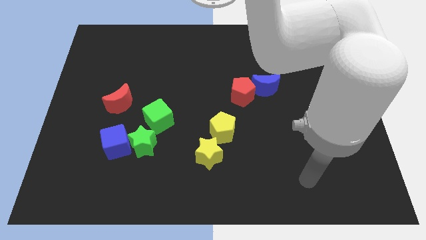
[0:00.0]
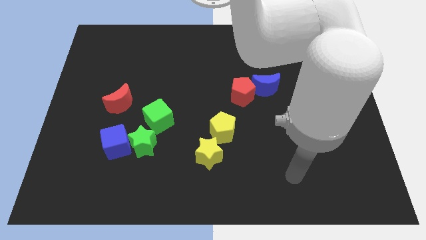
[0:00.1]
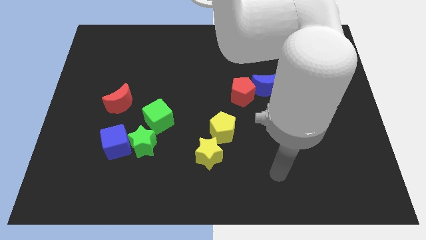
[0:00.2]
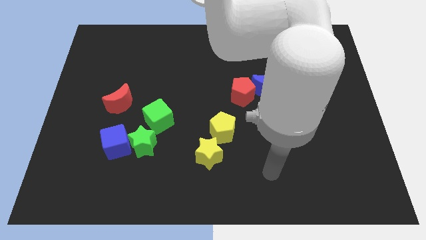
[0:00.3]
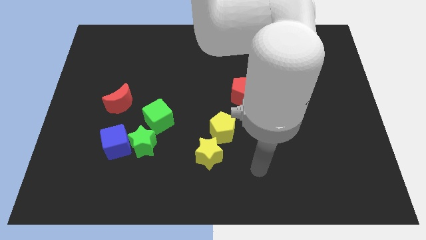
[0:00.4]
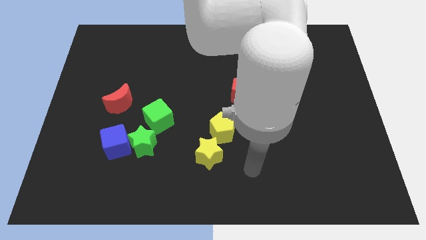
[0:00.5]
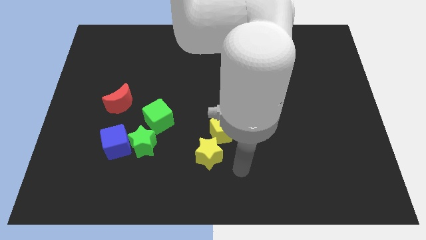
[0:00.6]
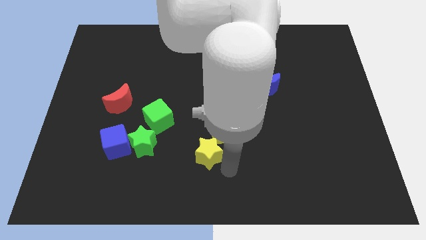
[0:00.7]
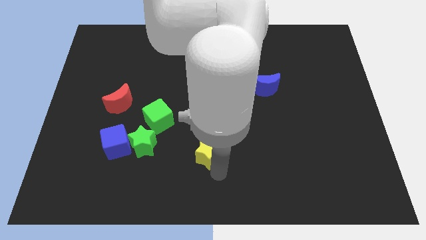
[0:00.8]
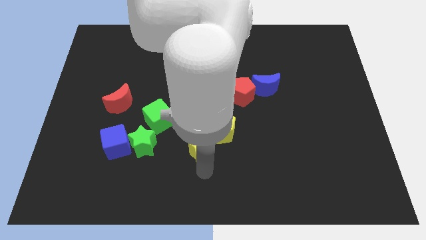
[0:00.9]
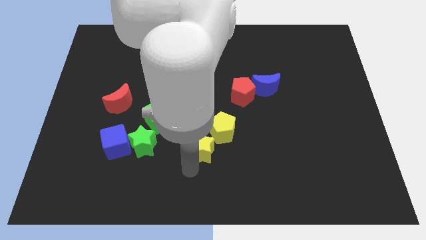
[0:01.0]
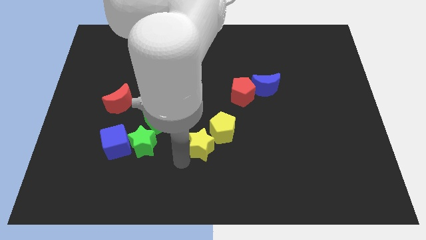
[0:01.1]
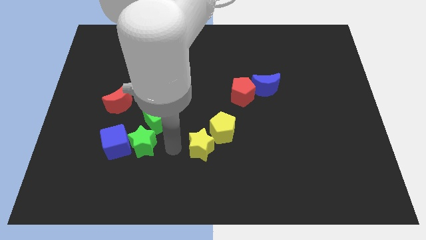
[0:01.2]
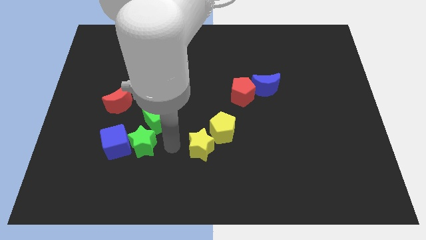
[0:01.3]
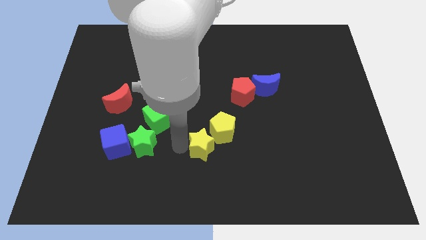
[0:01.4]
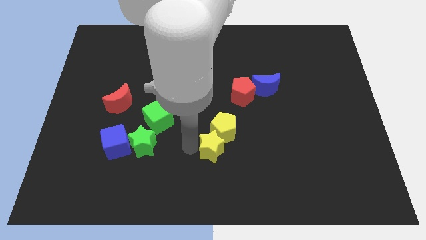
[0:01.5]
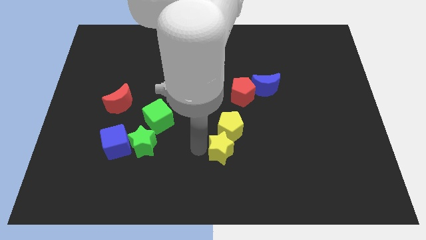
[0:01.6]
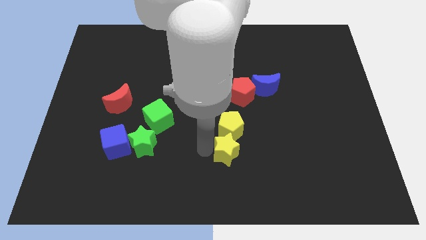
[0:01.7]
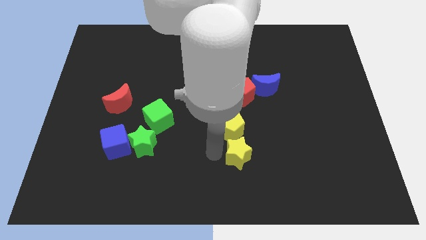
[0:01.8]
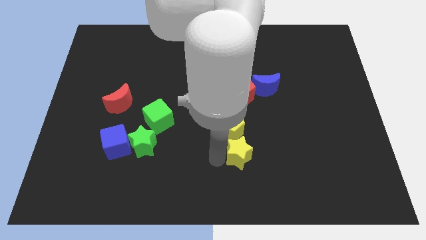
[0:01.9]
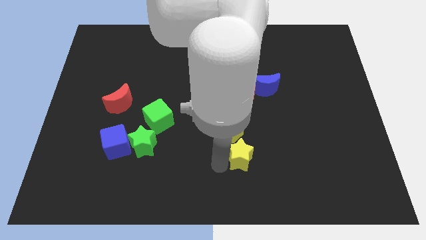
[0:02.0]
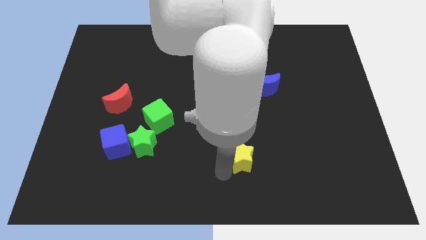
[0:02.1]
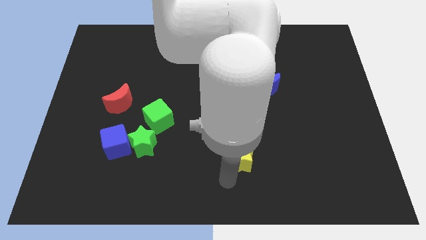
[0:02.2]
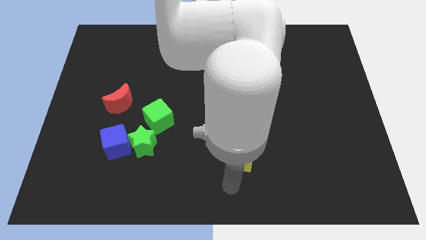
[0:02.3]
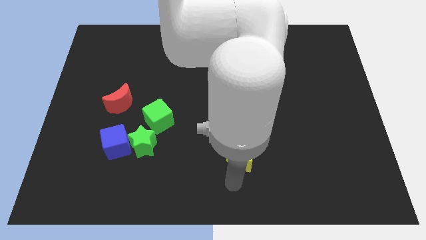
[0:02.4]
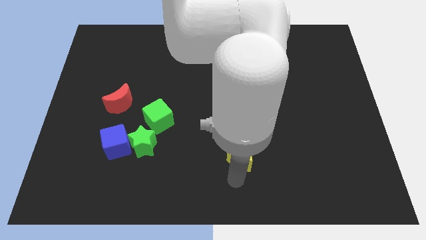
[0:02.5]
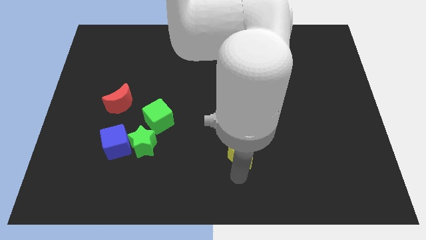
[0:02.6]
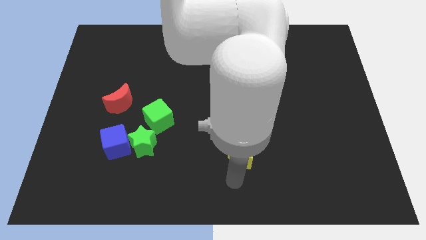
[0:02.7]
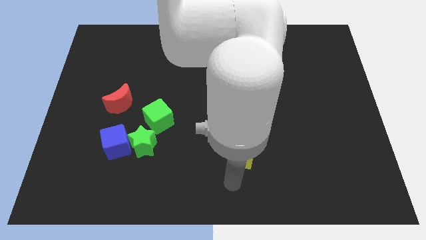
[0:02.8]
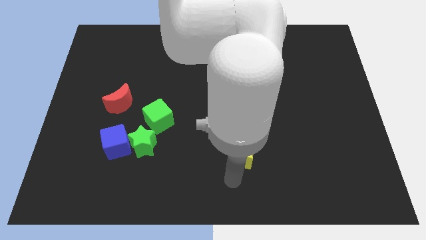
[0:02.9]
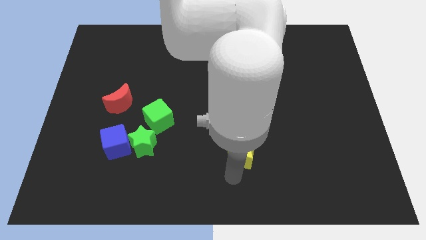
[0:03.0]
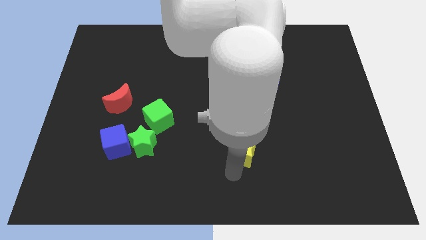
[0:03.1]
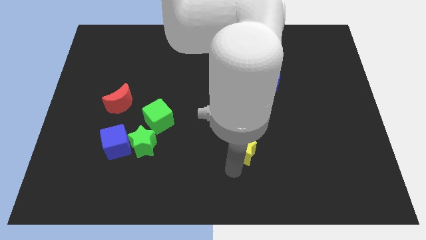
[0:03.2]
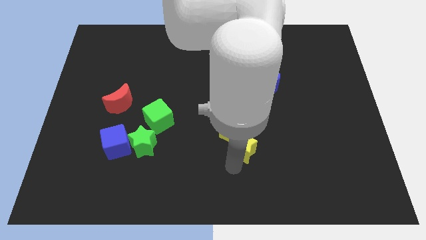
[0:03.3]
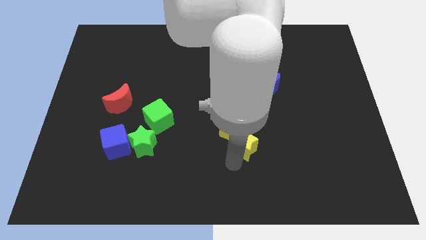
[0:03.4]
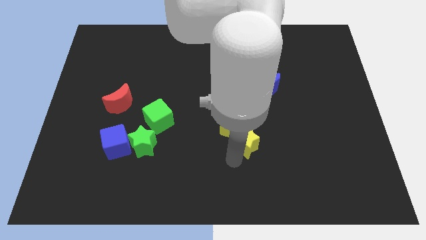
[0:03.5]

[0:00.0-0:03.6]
slide the yellow star somewhat up and then to the right

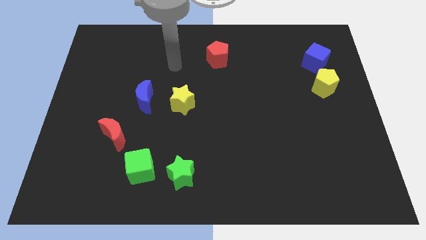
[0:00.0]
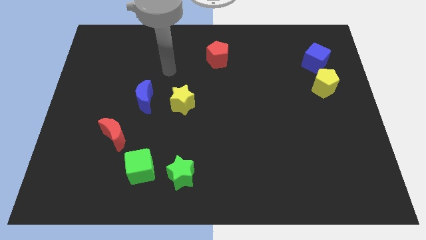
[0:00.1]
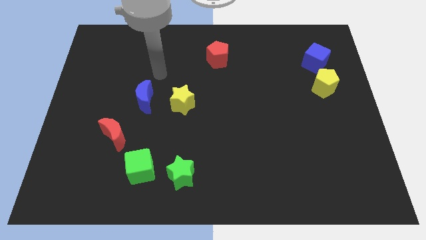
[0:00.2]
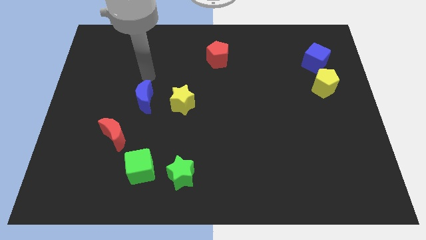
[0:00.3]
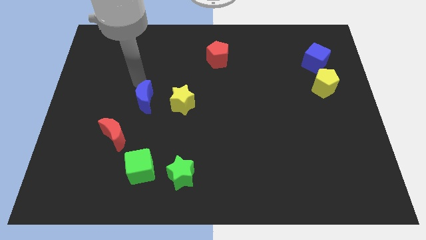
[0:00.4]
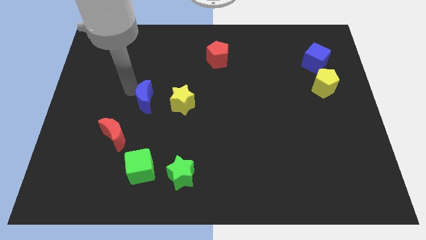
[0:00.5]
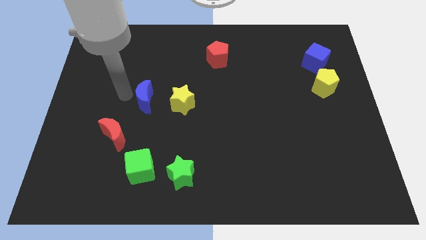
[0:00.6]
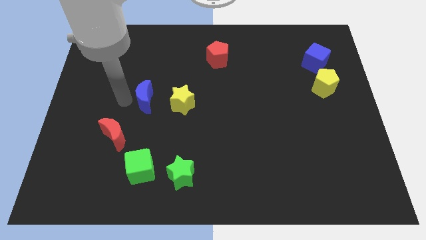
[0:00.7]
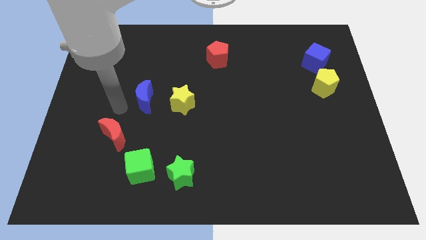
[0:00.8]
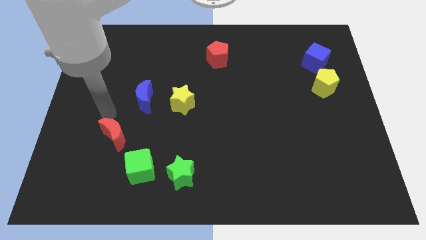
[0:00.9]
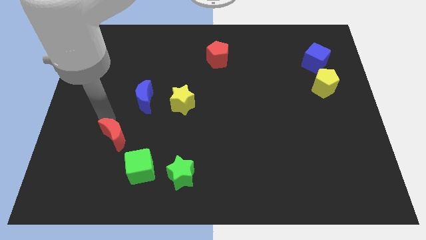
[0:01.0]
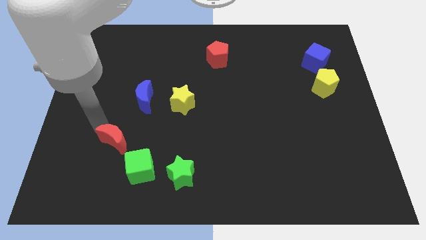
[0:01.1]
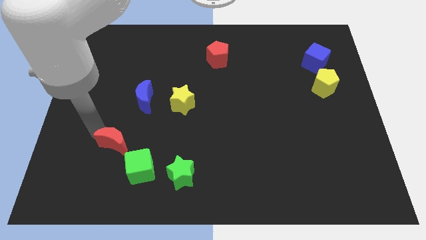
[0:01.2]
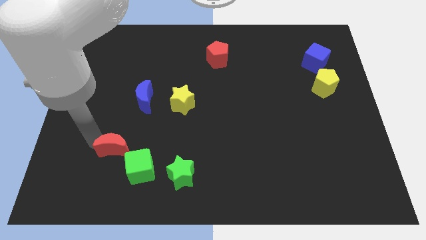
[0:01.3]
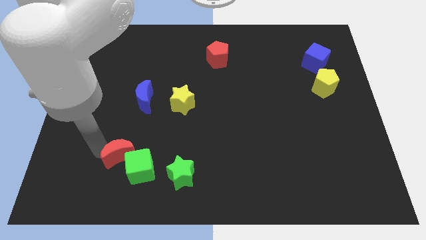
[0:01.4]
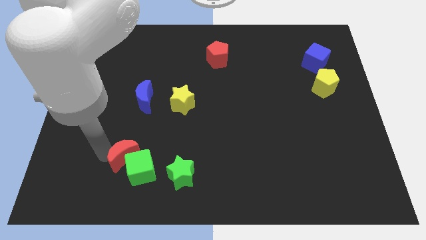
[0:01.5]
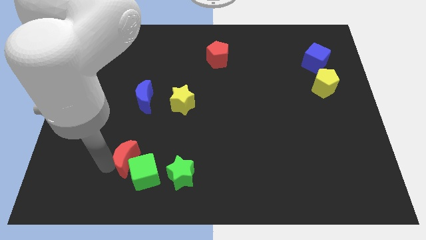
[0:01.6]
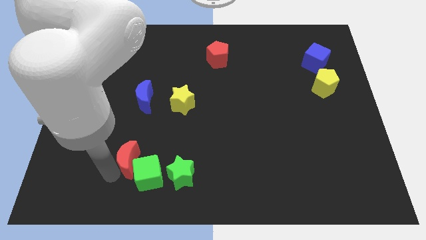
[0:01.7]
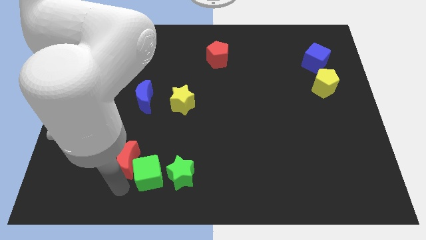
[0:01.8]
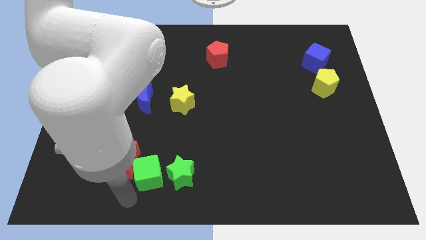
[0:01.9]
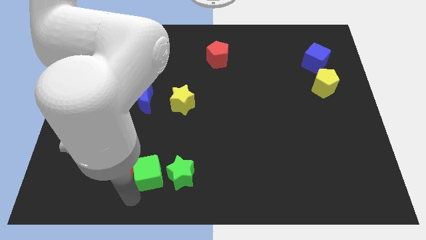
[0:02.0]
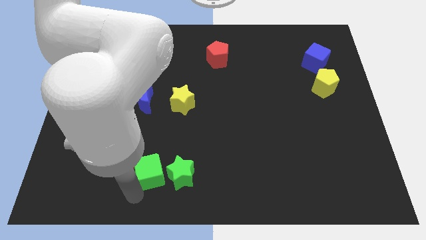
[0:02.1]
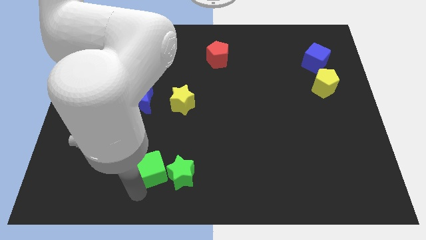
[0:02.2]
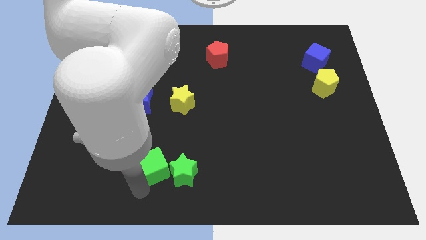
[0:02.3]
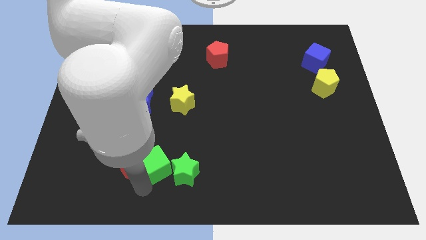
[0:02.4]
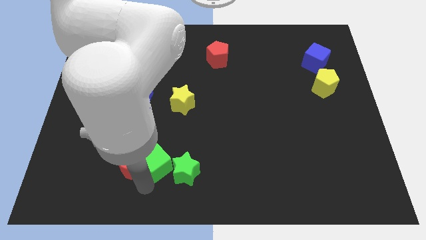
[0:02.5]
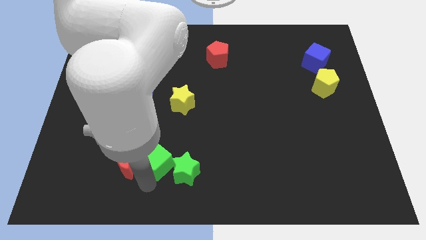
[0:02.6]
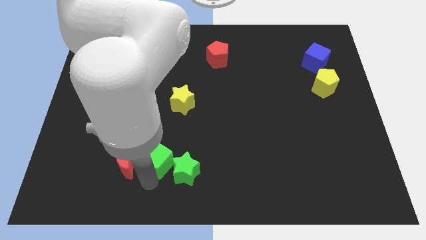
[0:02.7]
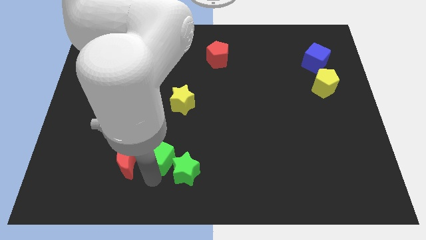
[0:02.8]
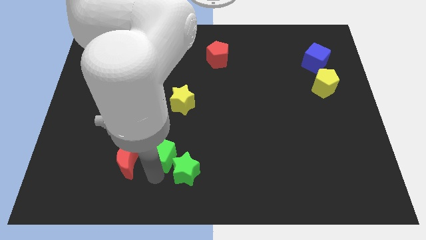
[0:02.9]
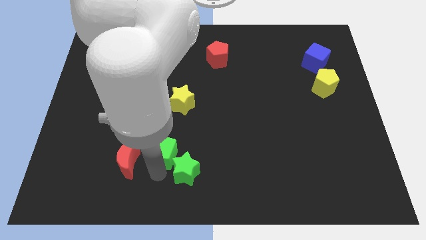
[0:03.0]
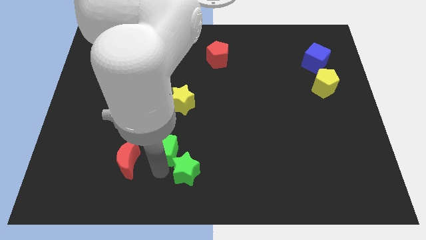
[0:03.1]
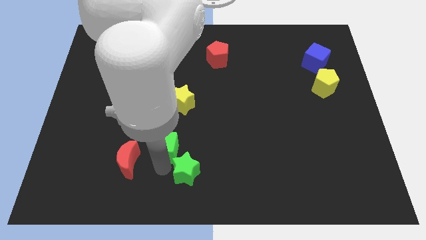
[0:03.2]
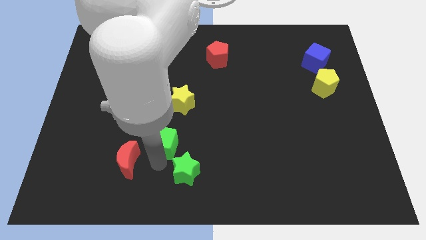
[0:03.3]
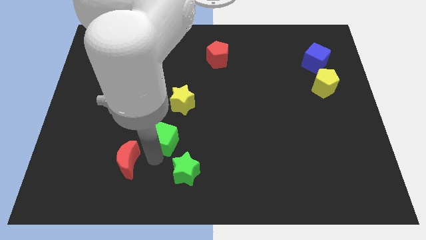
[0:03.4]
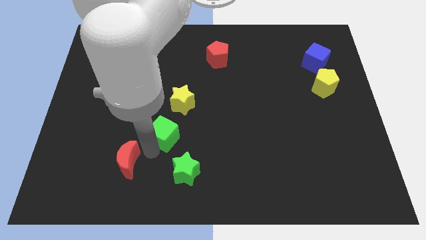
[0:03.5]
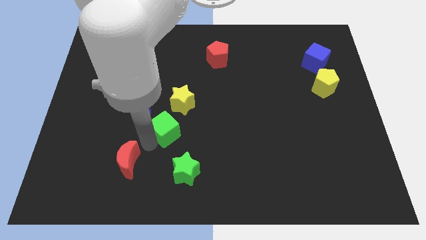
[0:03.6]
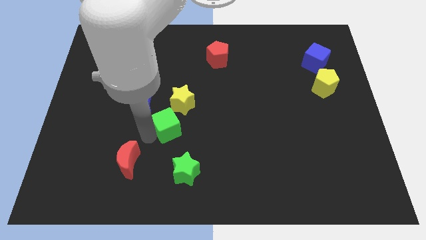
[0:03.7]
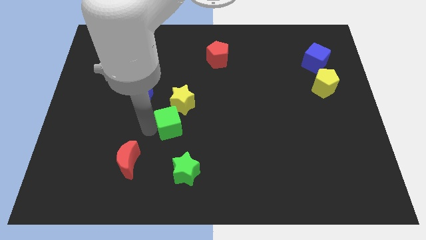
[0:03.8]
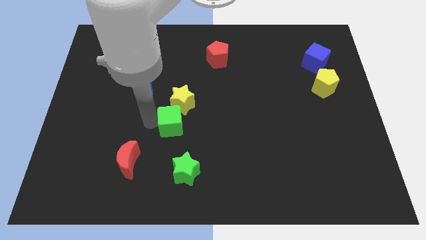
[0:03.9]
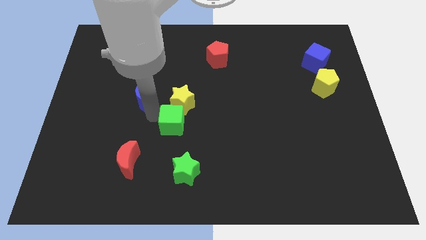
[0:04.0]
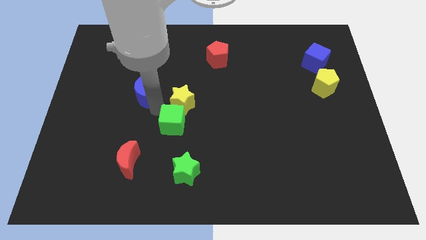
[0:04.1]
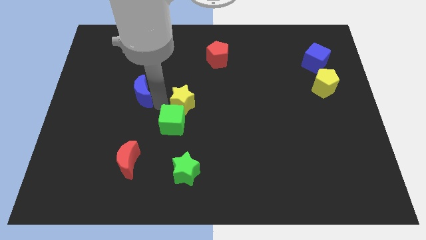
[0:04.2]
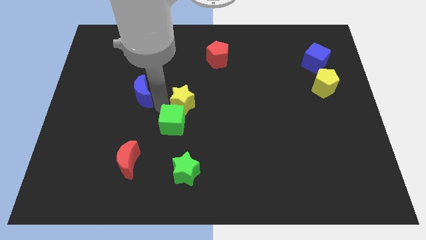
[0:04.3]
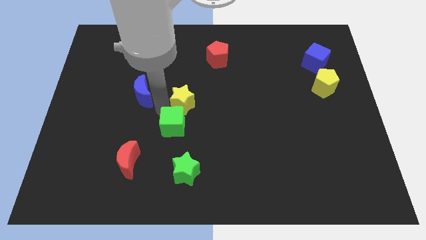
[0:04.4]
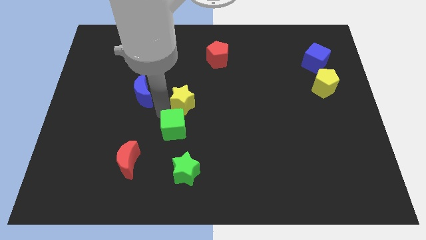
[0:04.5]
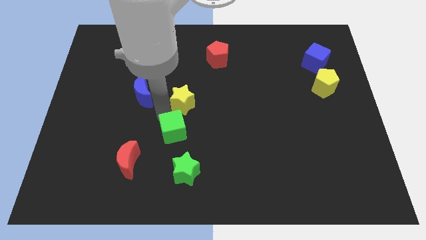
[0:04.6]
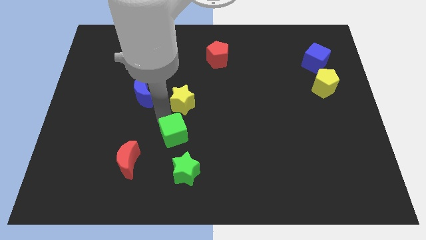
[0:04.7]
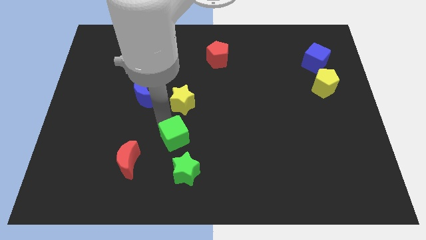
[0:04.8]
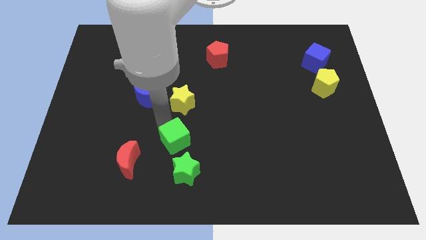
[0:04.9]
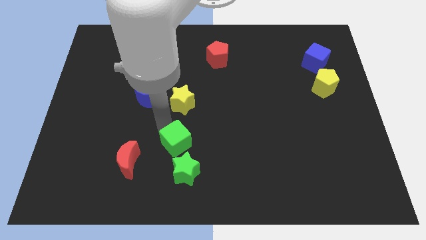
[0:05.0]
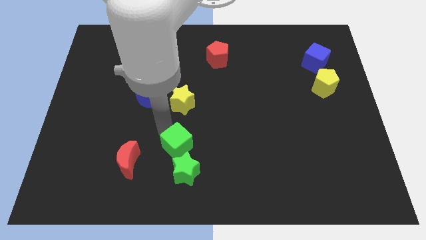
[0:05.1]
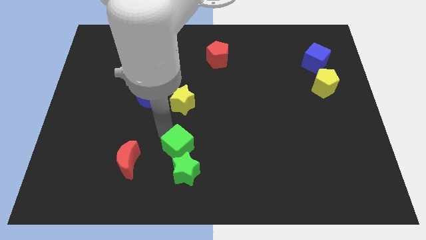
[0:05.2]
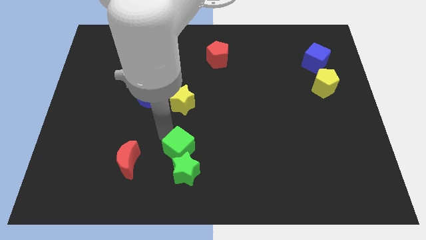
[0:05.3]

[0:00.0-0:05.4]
slightly slide the green cube right
